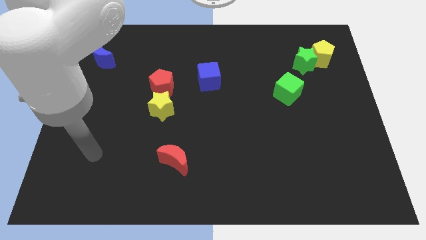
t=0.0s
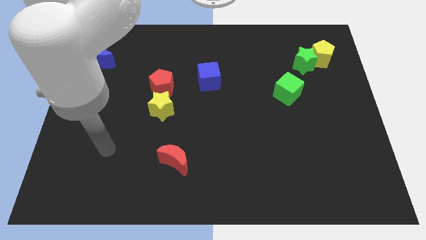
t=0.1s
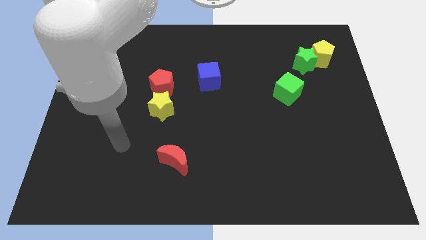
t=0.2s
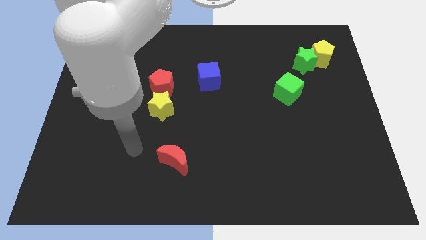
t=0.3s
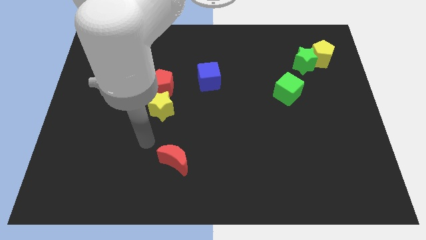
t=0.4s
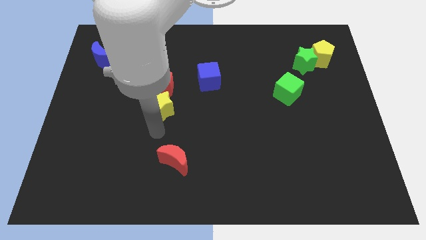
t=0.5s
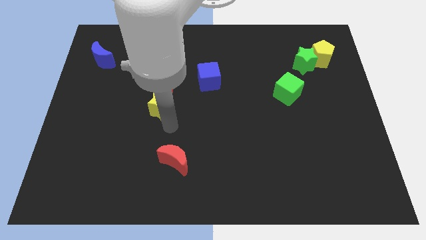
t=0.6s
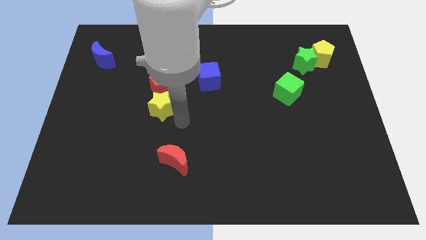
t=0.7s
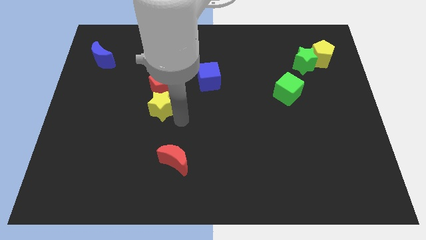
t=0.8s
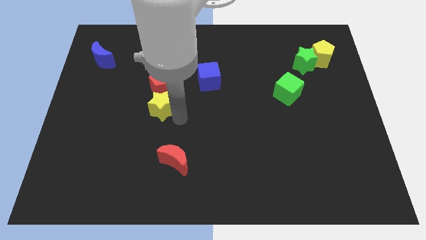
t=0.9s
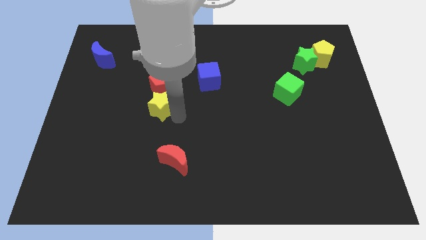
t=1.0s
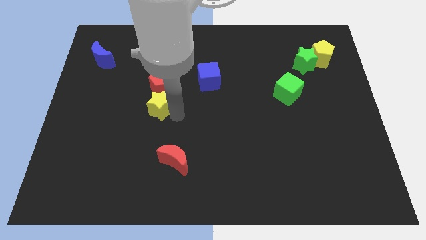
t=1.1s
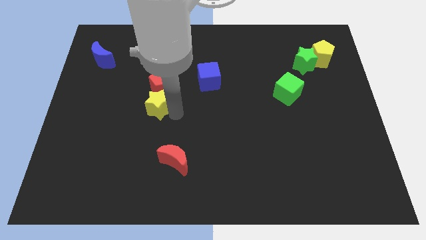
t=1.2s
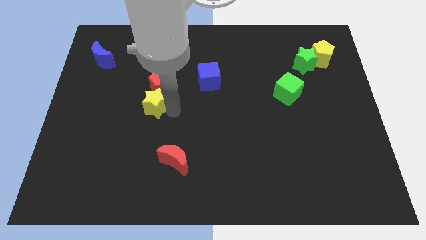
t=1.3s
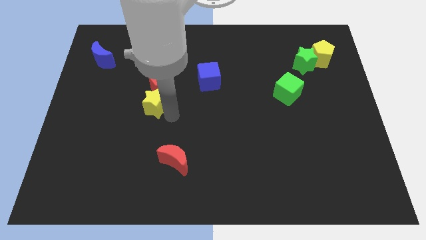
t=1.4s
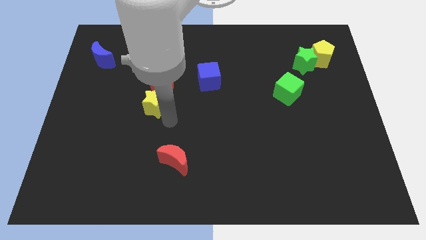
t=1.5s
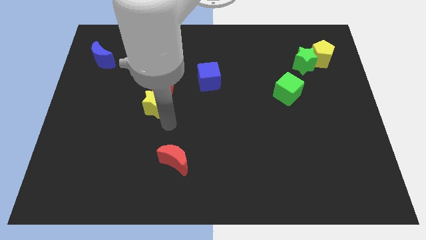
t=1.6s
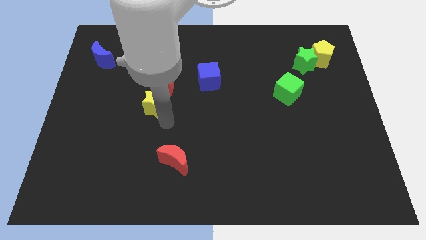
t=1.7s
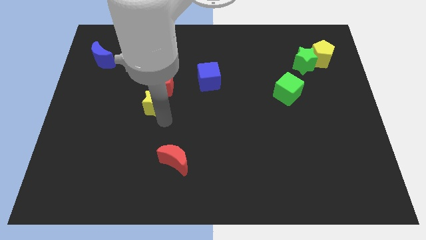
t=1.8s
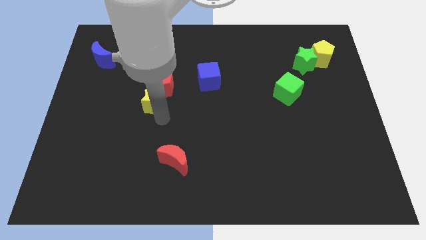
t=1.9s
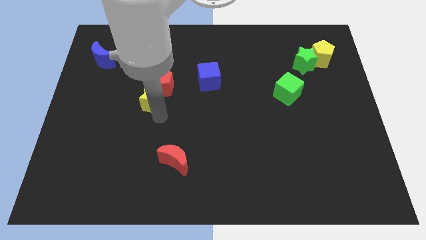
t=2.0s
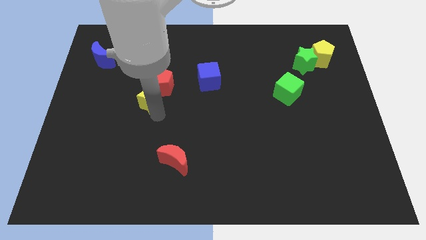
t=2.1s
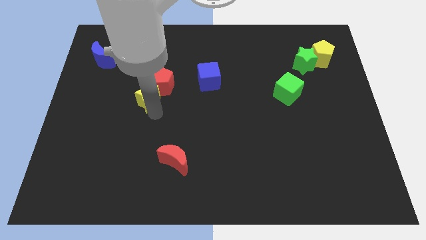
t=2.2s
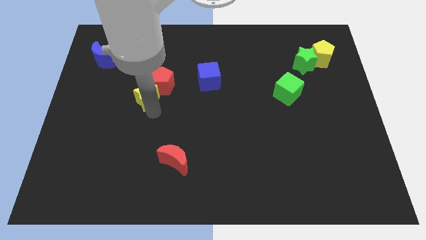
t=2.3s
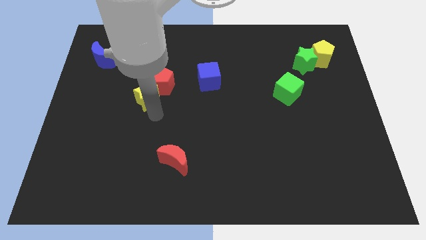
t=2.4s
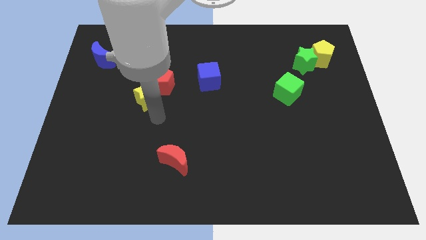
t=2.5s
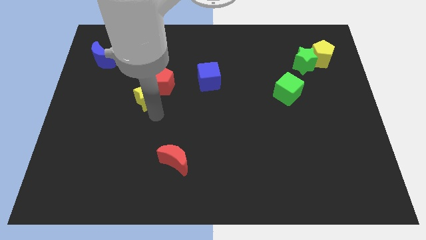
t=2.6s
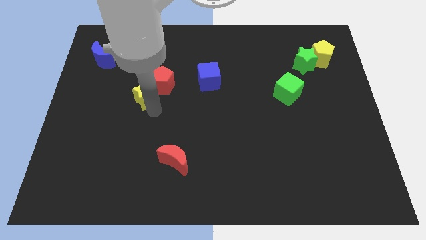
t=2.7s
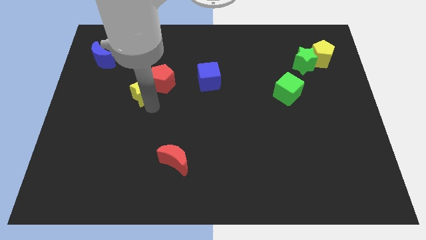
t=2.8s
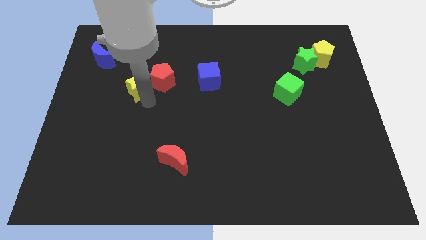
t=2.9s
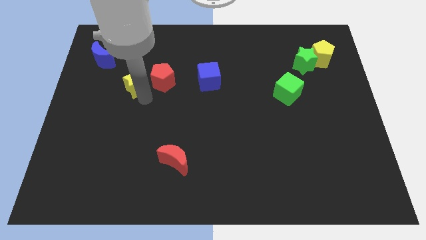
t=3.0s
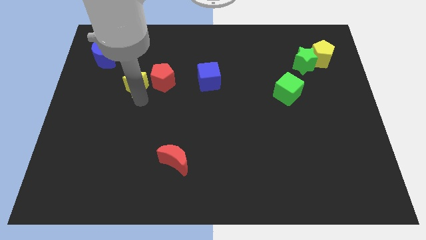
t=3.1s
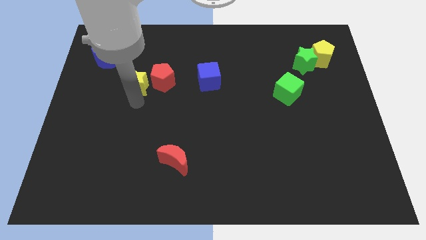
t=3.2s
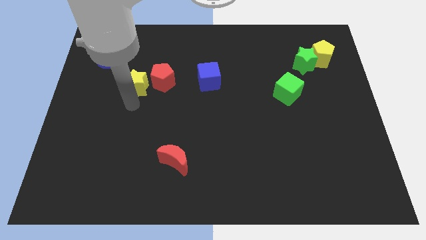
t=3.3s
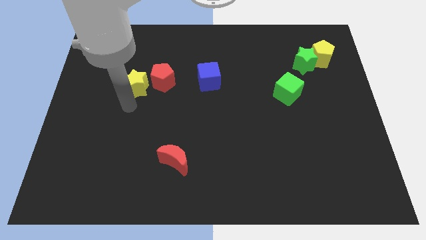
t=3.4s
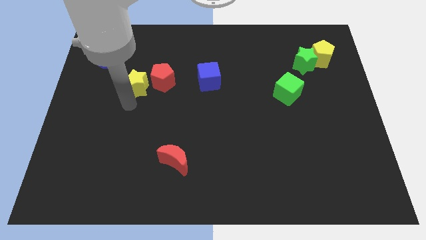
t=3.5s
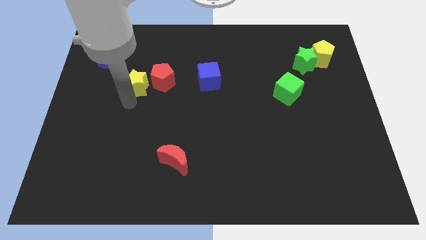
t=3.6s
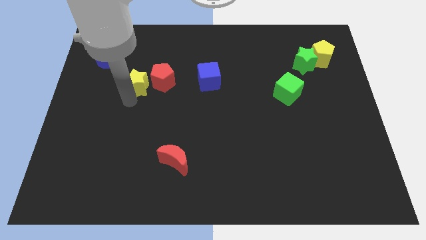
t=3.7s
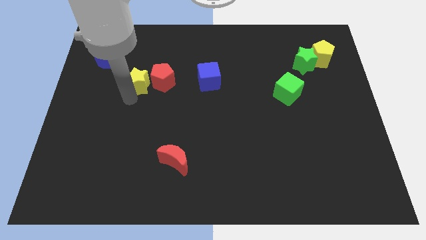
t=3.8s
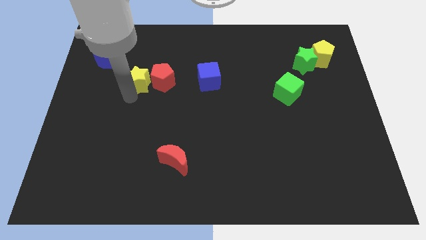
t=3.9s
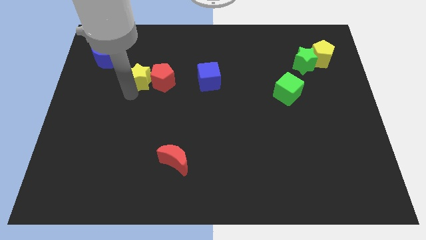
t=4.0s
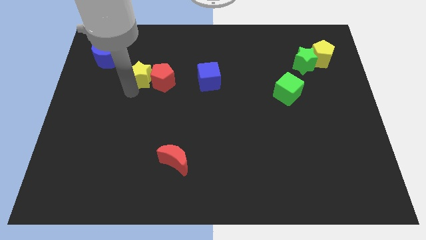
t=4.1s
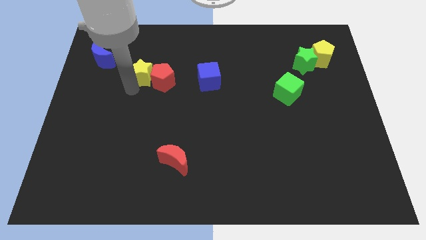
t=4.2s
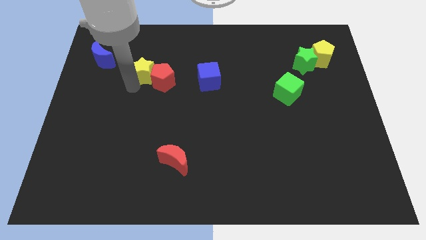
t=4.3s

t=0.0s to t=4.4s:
put the yellow star just right of the blue moon

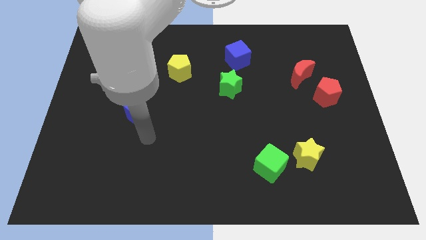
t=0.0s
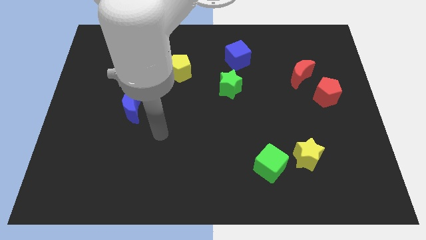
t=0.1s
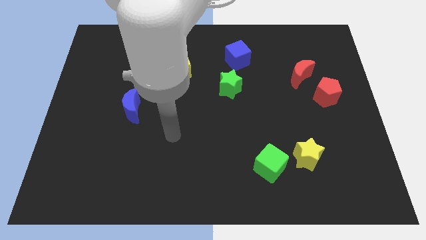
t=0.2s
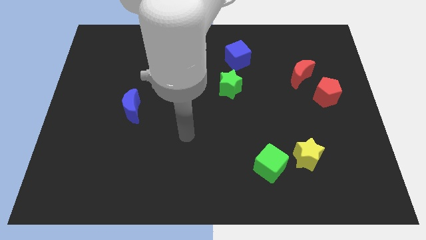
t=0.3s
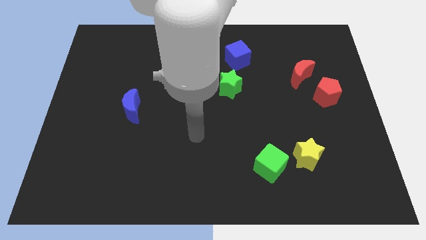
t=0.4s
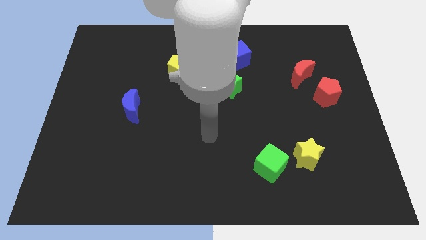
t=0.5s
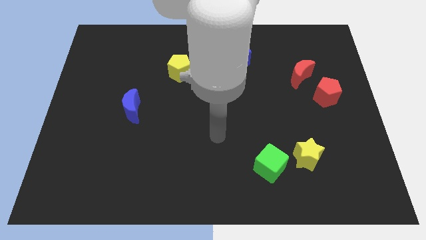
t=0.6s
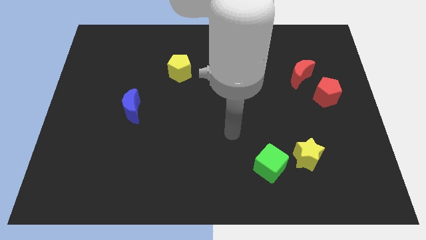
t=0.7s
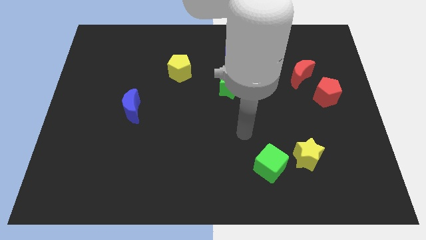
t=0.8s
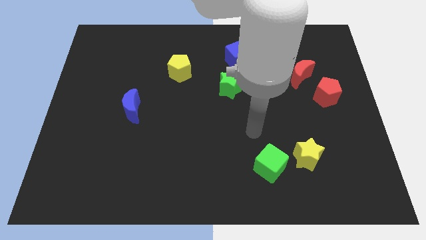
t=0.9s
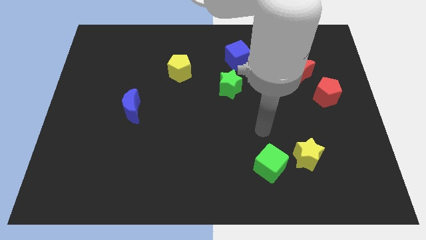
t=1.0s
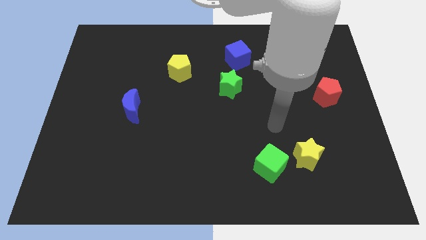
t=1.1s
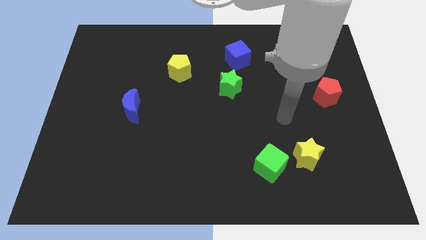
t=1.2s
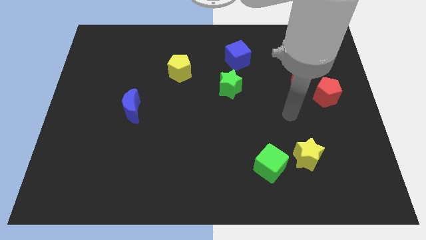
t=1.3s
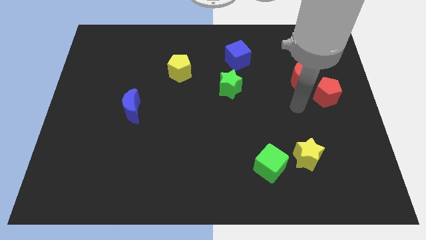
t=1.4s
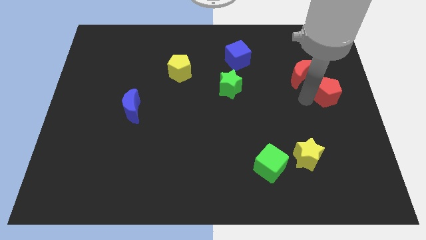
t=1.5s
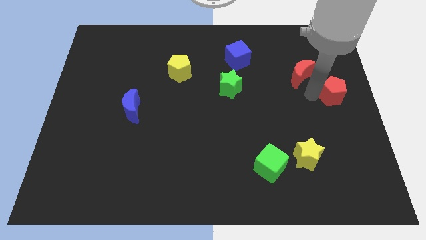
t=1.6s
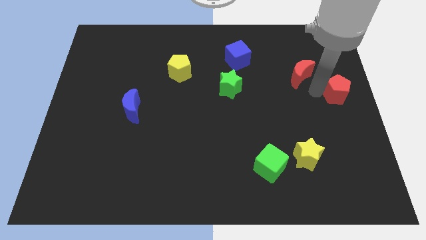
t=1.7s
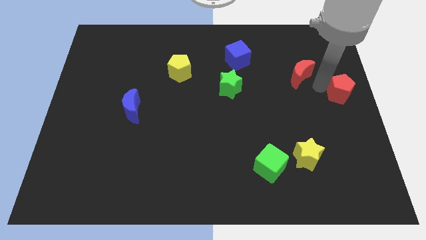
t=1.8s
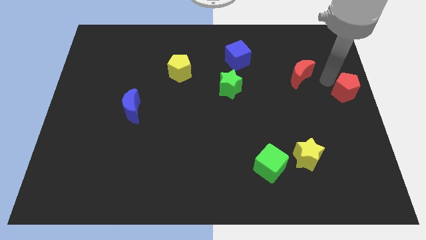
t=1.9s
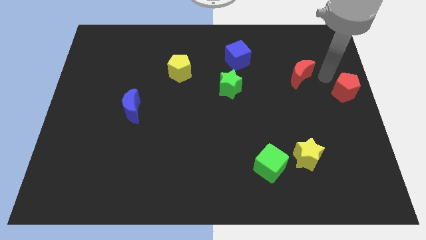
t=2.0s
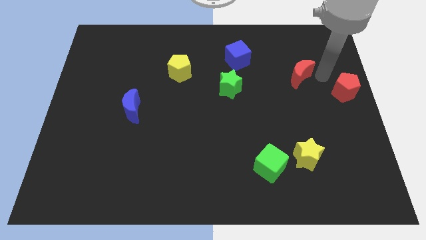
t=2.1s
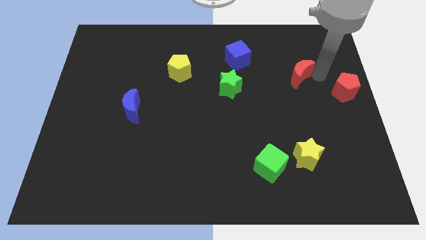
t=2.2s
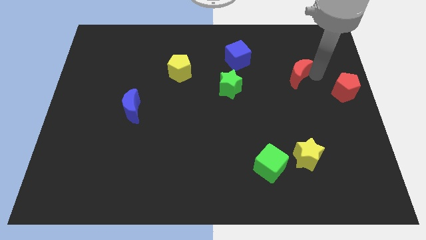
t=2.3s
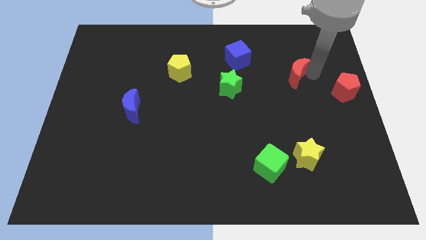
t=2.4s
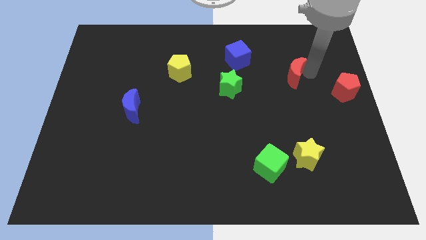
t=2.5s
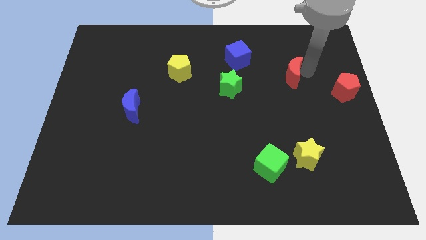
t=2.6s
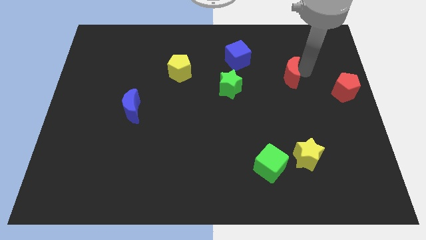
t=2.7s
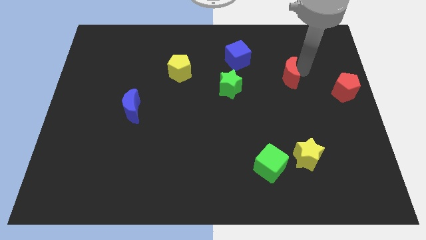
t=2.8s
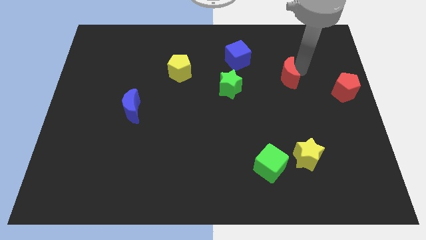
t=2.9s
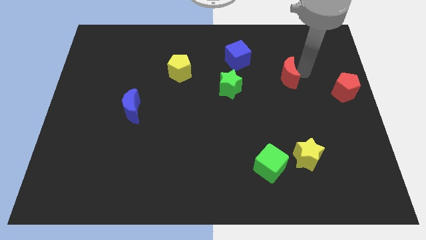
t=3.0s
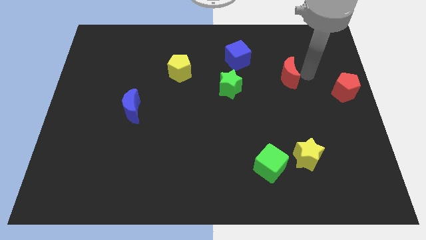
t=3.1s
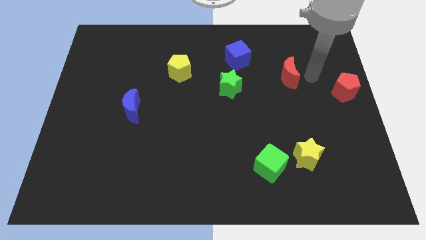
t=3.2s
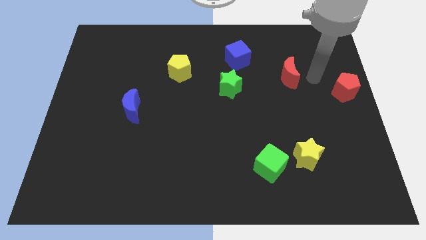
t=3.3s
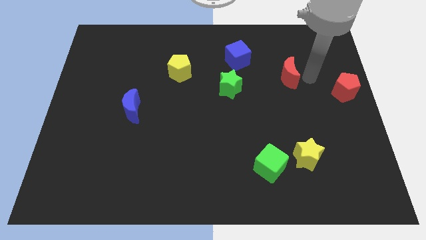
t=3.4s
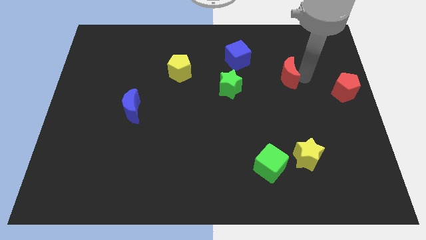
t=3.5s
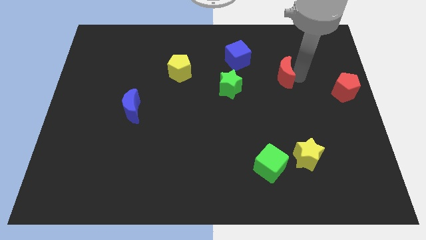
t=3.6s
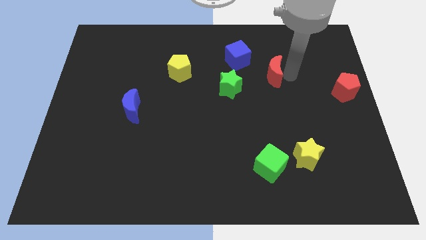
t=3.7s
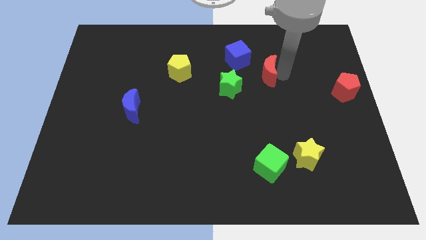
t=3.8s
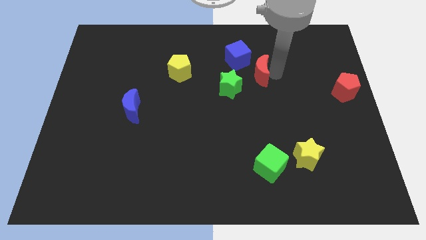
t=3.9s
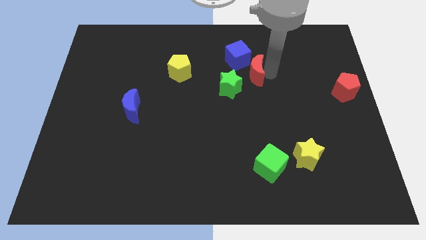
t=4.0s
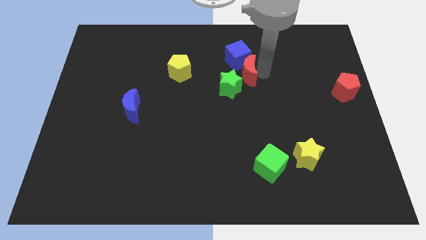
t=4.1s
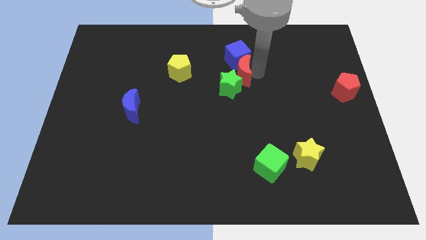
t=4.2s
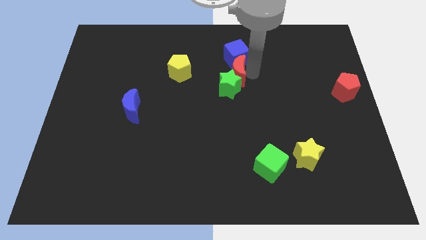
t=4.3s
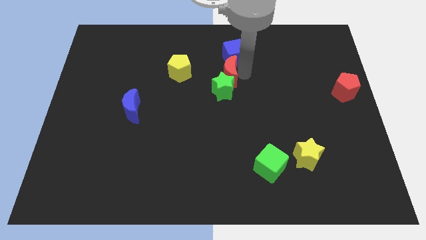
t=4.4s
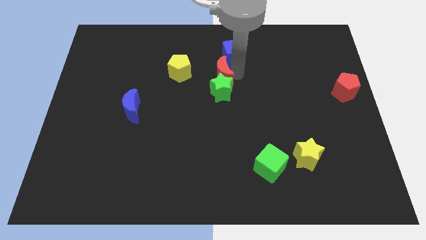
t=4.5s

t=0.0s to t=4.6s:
push the red moon to the top left side of the green star
